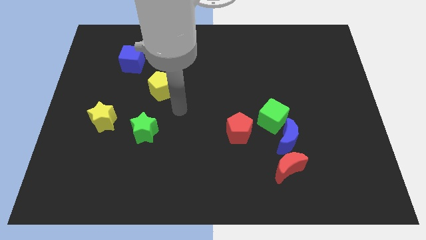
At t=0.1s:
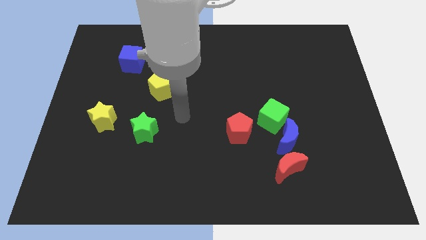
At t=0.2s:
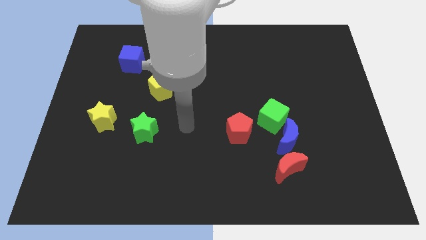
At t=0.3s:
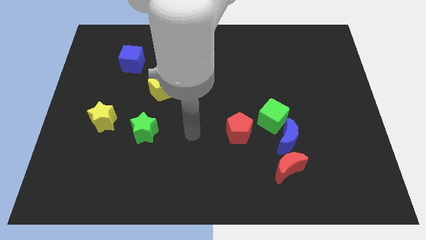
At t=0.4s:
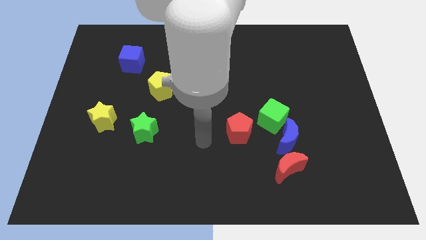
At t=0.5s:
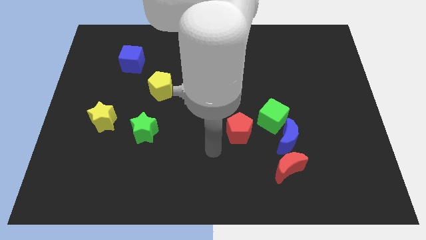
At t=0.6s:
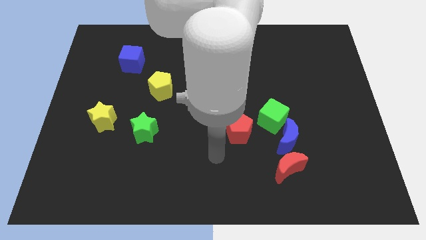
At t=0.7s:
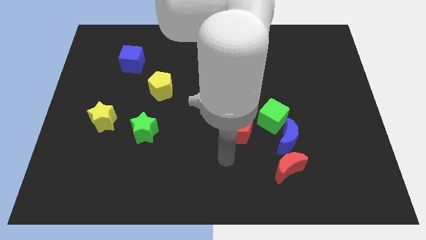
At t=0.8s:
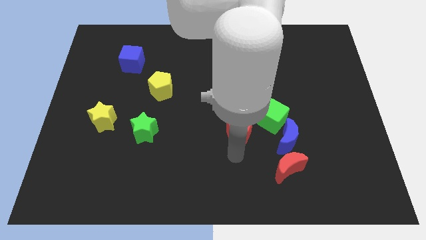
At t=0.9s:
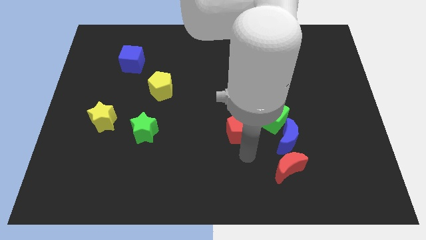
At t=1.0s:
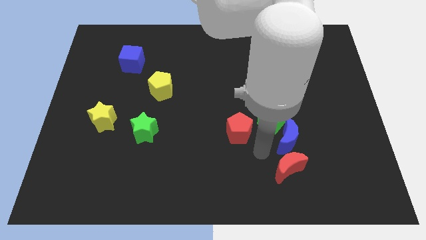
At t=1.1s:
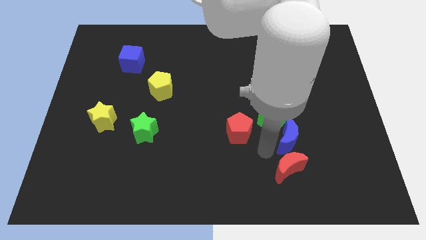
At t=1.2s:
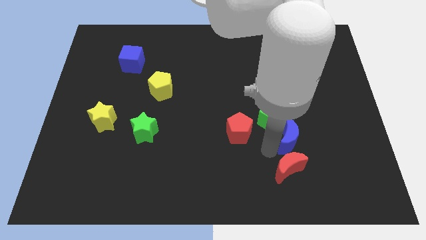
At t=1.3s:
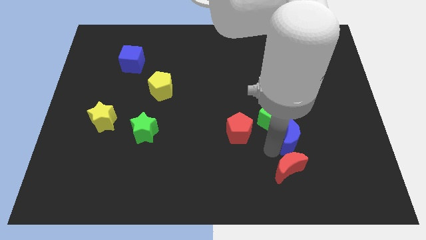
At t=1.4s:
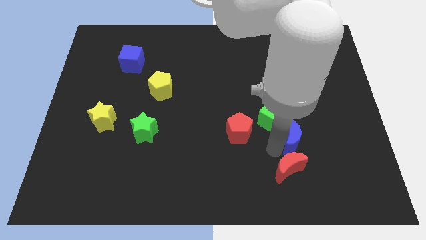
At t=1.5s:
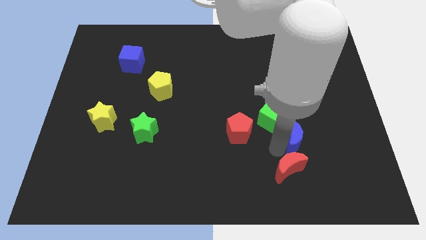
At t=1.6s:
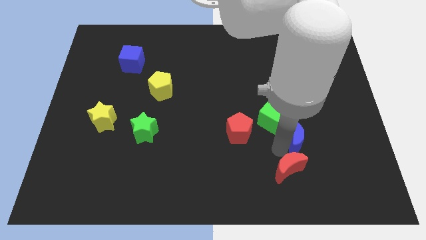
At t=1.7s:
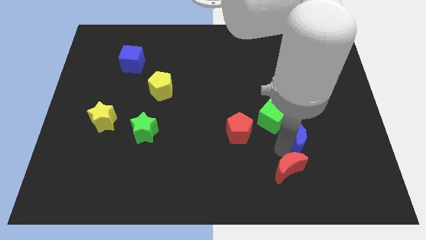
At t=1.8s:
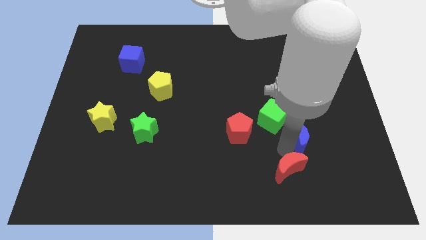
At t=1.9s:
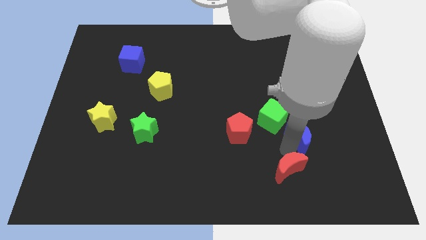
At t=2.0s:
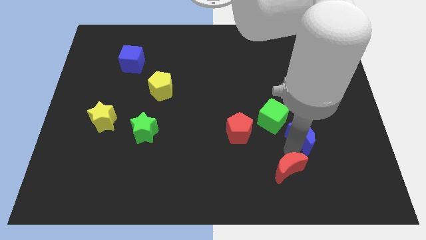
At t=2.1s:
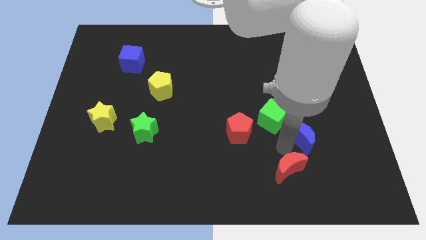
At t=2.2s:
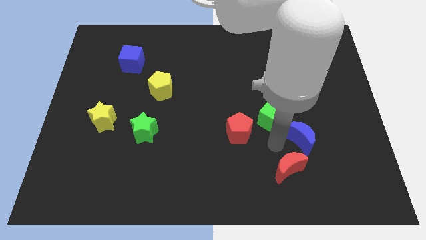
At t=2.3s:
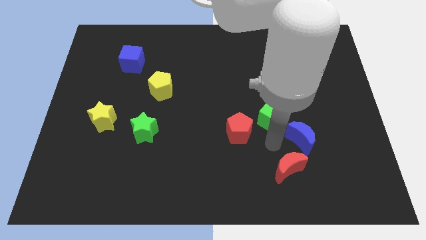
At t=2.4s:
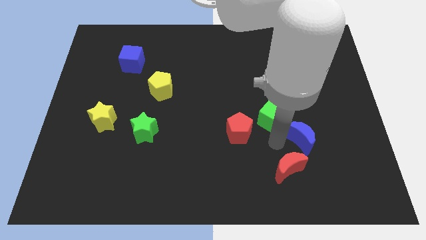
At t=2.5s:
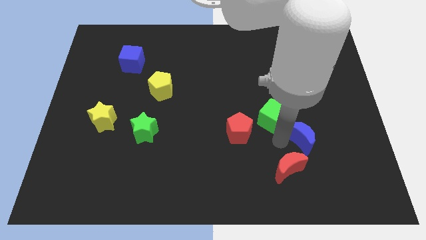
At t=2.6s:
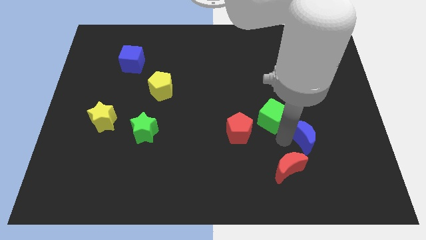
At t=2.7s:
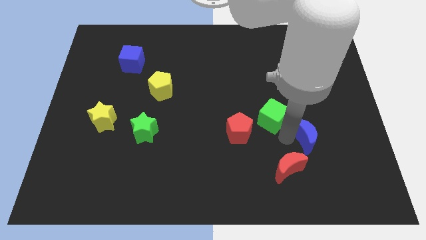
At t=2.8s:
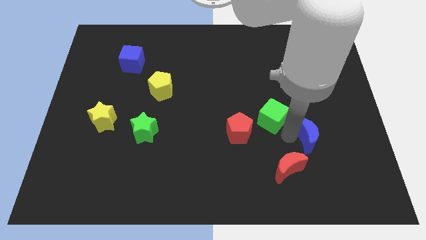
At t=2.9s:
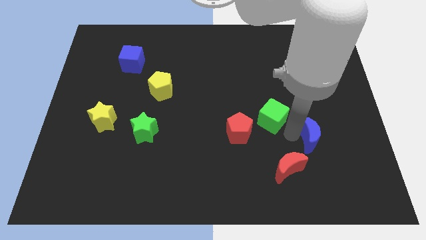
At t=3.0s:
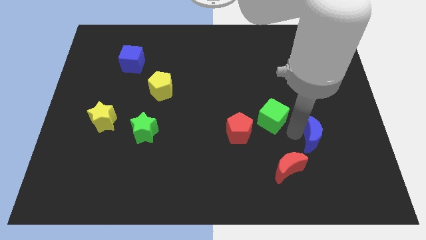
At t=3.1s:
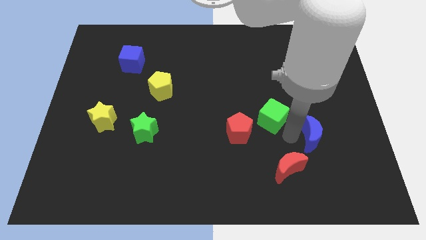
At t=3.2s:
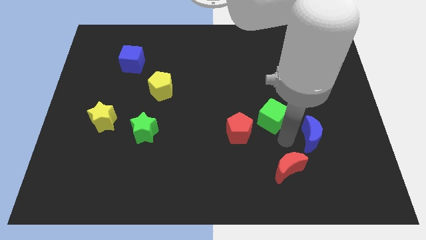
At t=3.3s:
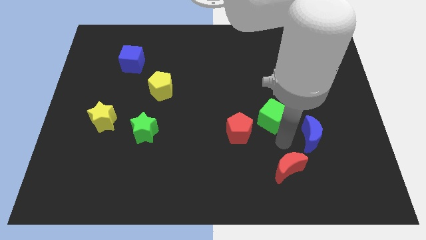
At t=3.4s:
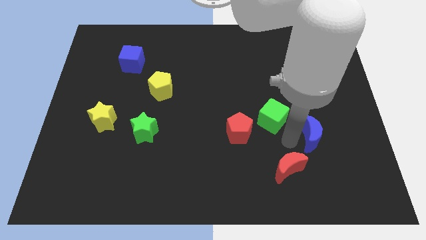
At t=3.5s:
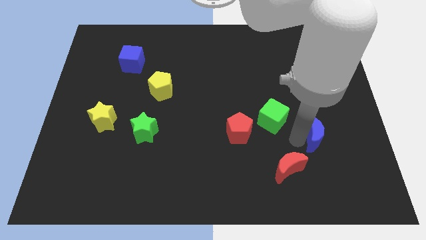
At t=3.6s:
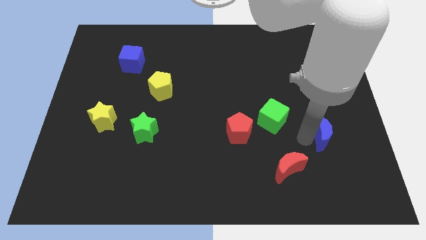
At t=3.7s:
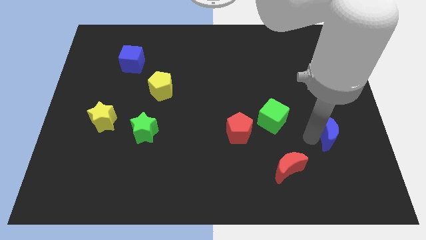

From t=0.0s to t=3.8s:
move the blue moon away from the green cube and red moon

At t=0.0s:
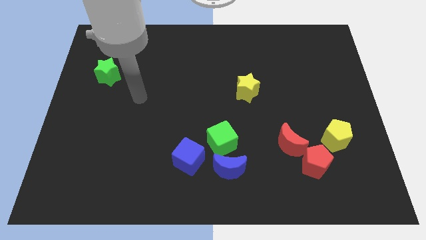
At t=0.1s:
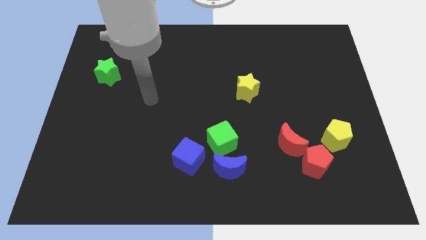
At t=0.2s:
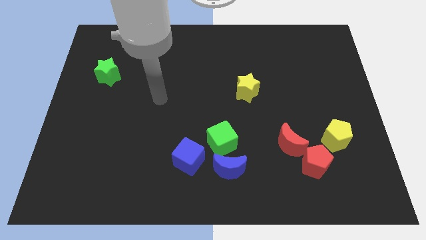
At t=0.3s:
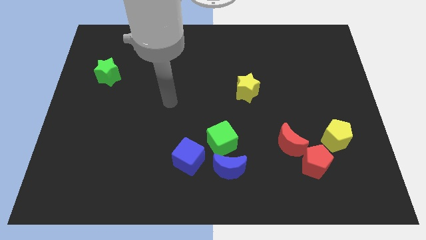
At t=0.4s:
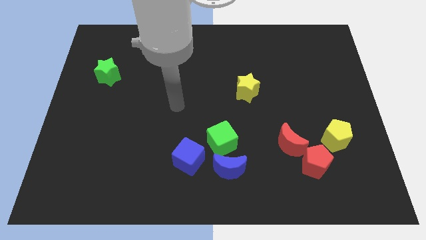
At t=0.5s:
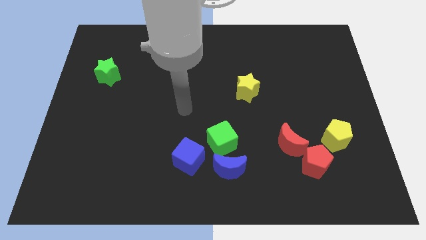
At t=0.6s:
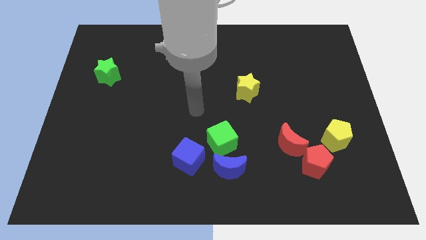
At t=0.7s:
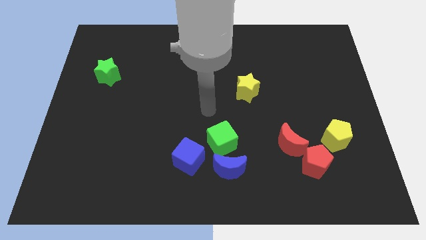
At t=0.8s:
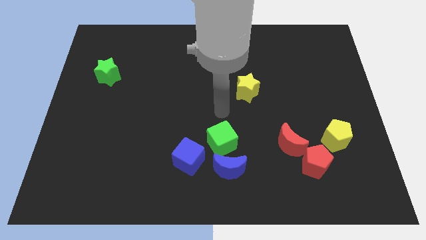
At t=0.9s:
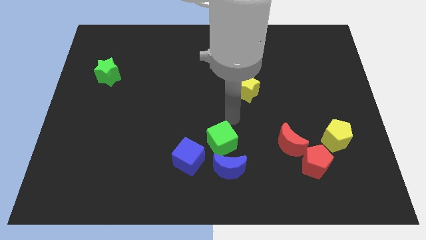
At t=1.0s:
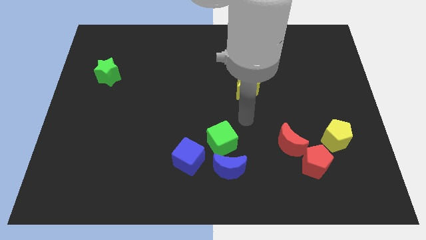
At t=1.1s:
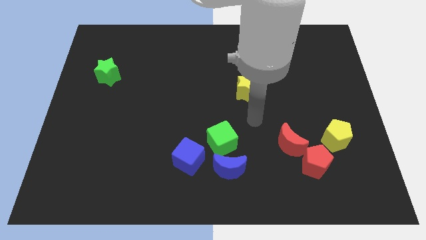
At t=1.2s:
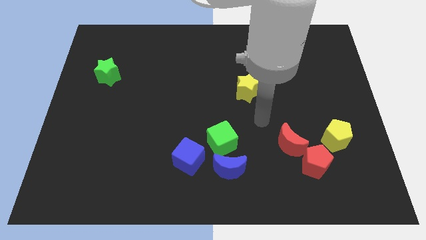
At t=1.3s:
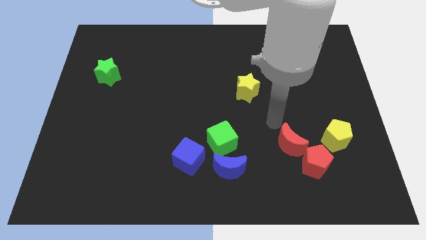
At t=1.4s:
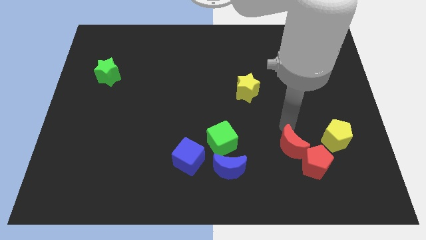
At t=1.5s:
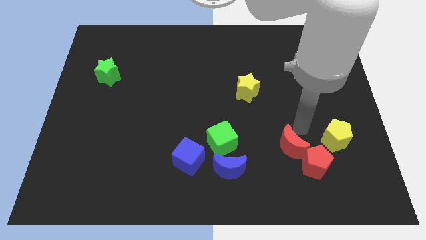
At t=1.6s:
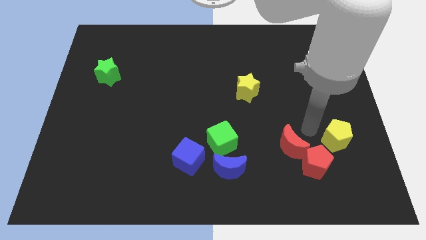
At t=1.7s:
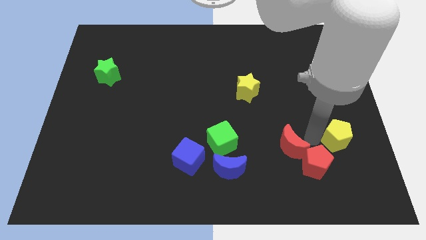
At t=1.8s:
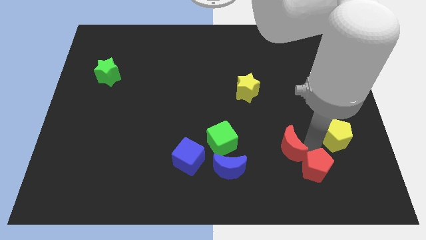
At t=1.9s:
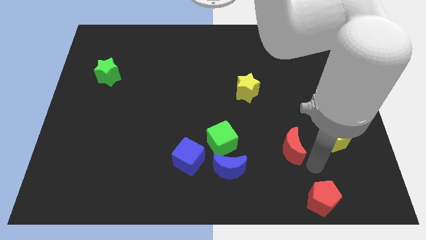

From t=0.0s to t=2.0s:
pull the red moon apart from the red pentagon

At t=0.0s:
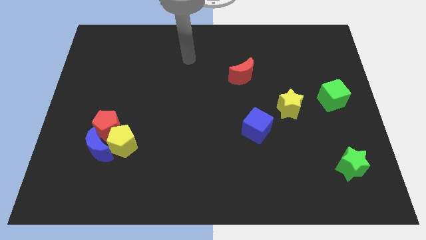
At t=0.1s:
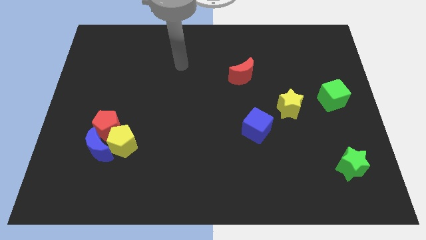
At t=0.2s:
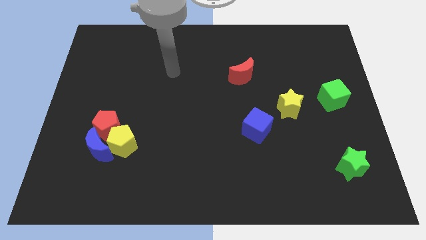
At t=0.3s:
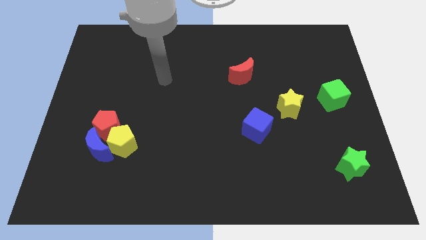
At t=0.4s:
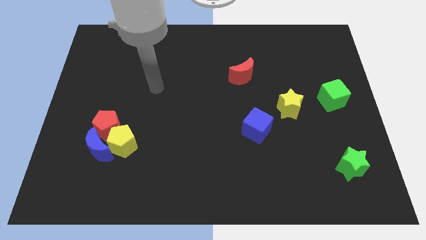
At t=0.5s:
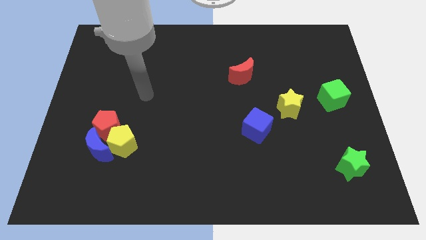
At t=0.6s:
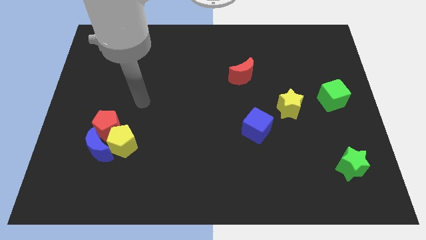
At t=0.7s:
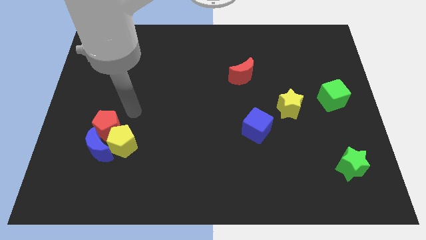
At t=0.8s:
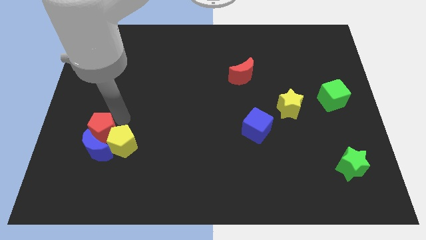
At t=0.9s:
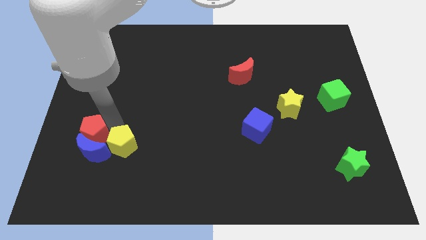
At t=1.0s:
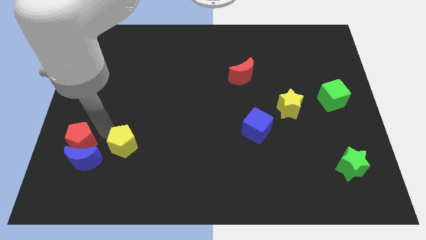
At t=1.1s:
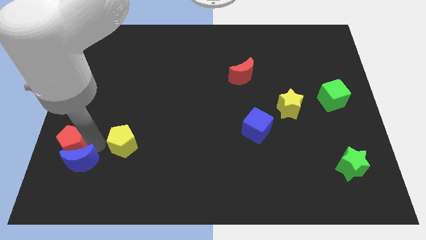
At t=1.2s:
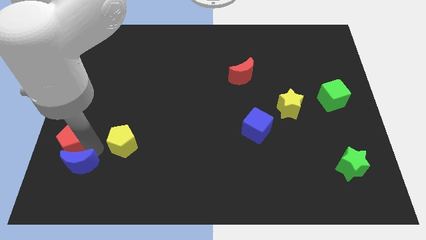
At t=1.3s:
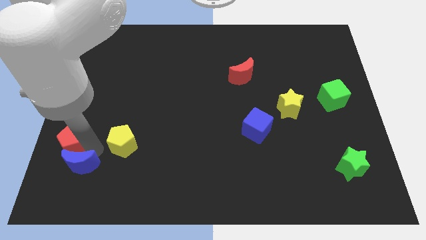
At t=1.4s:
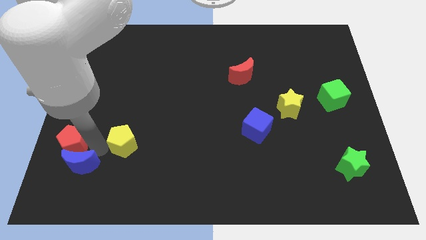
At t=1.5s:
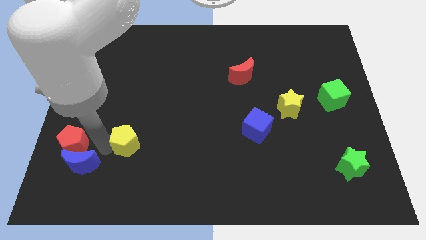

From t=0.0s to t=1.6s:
separate the yellow pentagon from the blue moon and red pentagon

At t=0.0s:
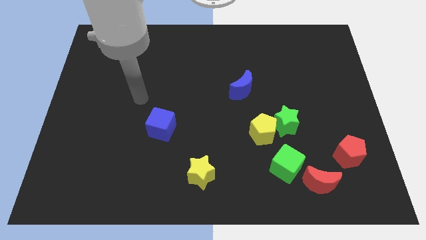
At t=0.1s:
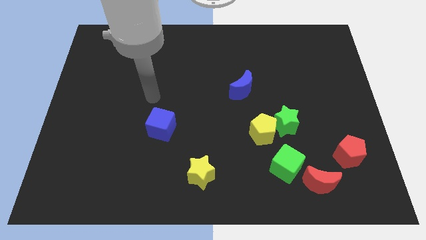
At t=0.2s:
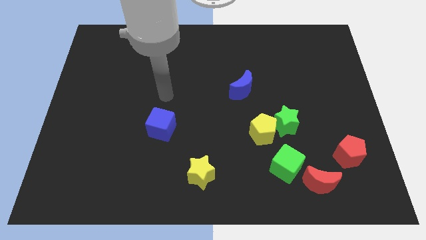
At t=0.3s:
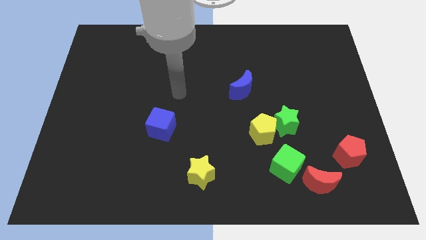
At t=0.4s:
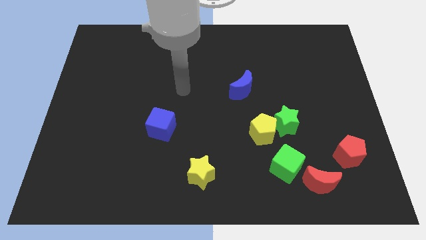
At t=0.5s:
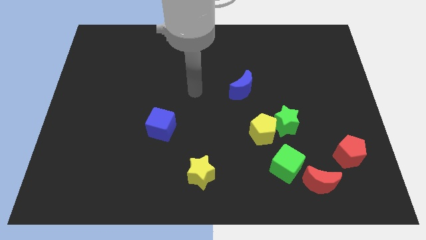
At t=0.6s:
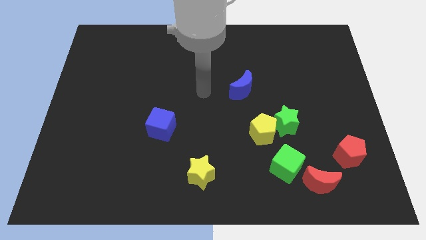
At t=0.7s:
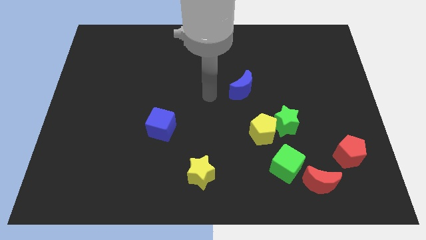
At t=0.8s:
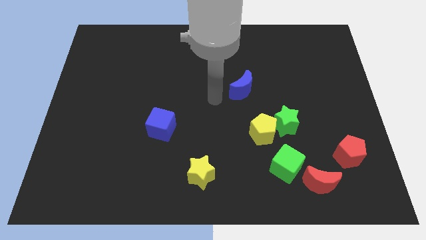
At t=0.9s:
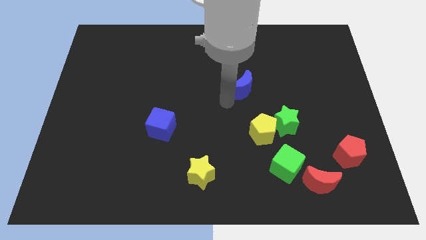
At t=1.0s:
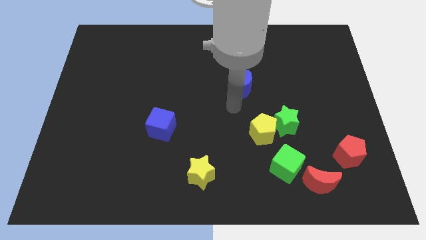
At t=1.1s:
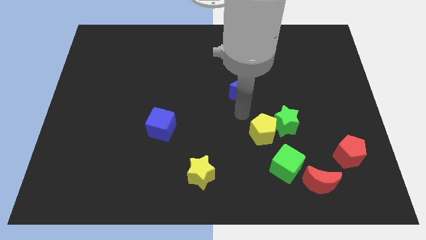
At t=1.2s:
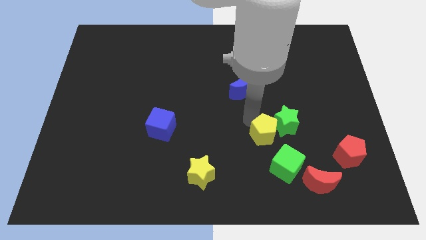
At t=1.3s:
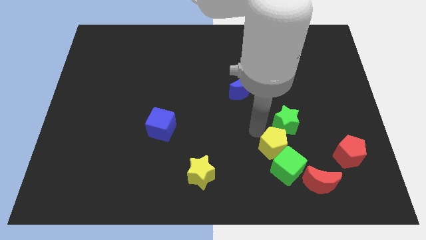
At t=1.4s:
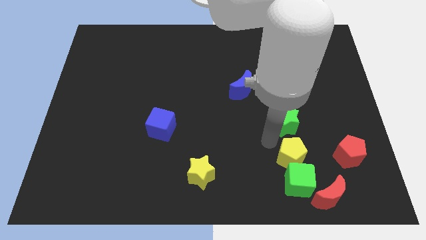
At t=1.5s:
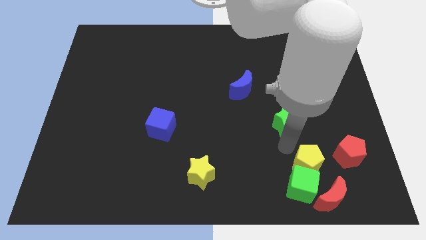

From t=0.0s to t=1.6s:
pull the green star apart from the yellow pentagon

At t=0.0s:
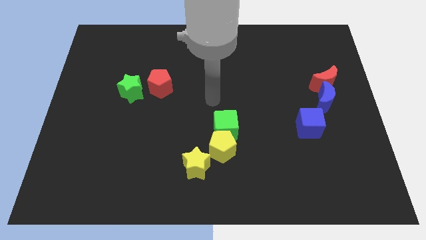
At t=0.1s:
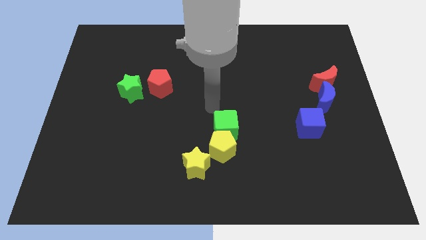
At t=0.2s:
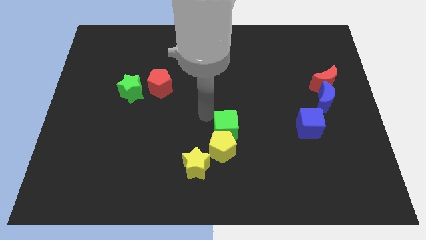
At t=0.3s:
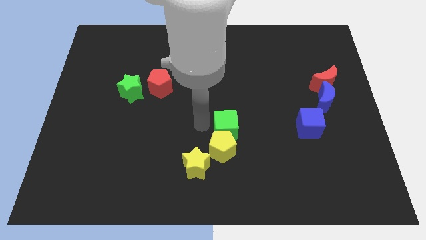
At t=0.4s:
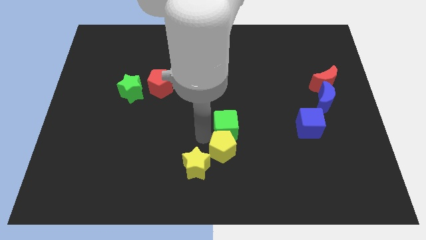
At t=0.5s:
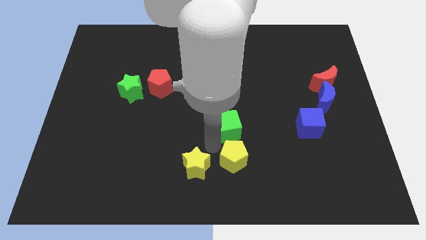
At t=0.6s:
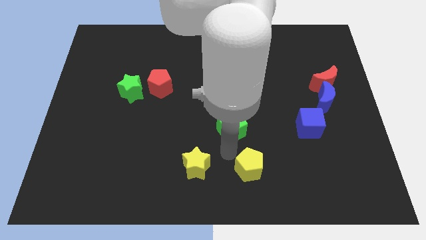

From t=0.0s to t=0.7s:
move the green cube away from the yellow pentagon
